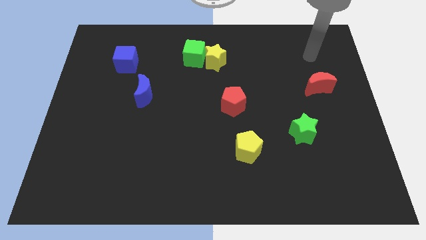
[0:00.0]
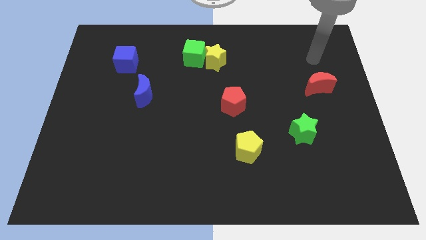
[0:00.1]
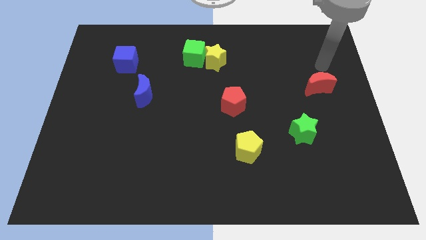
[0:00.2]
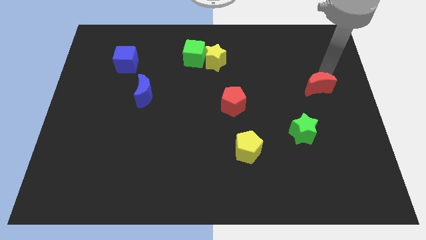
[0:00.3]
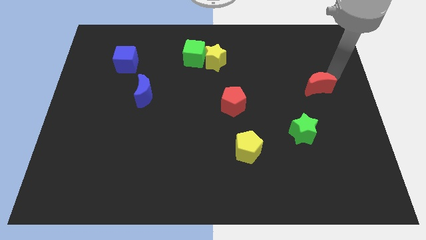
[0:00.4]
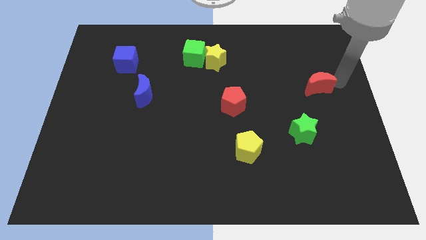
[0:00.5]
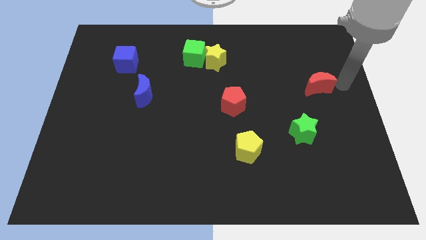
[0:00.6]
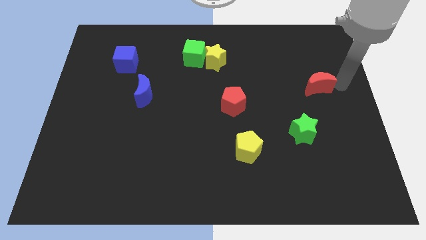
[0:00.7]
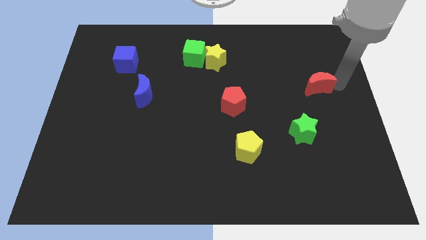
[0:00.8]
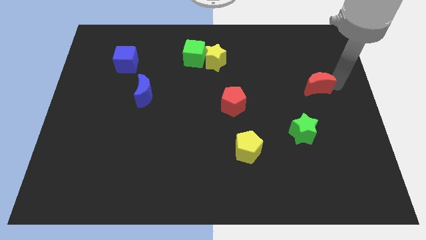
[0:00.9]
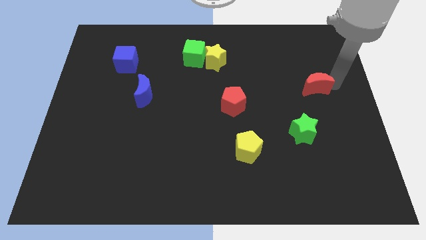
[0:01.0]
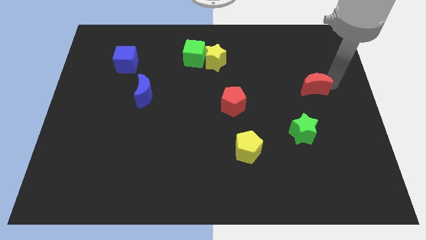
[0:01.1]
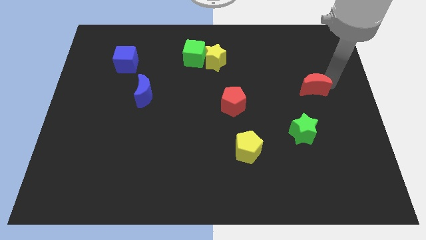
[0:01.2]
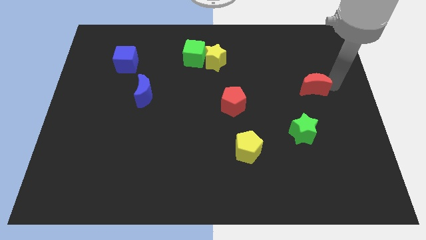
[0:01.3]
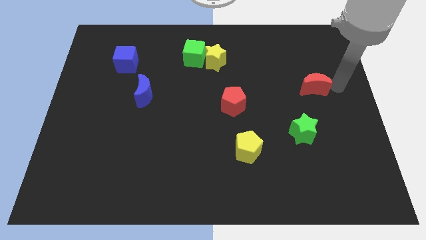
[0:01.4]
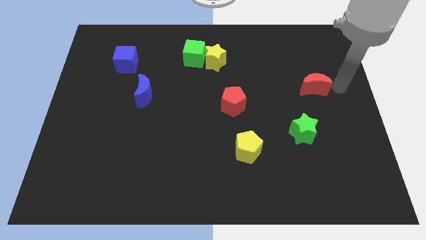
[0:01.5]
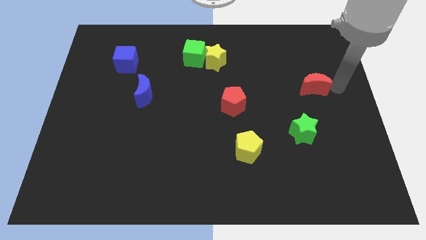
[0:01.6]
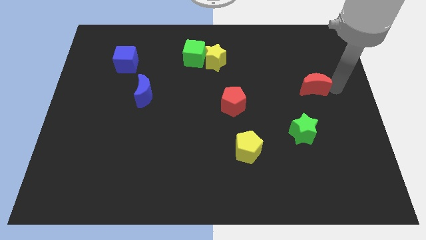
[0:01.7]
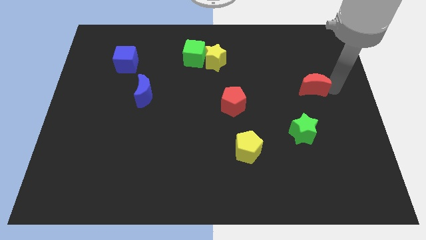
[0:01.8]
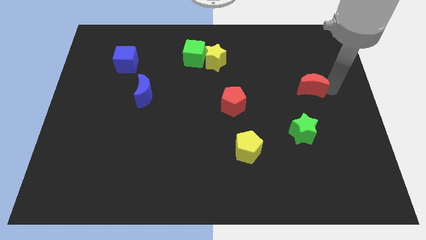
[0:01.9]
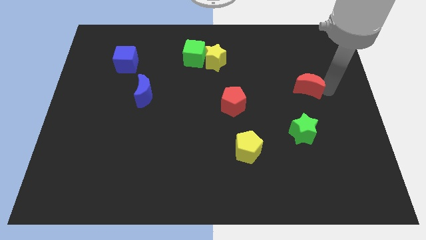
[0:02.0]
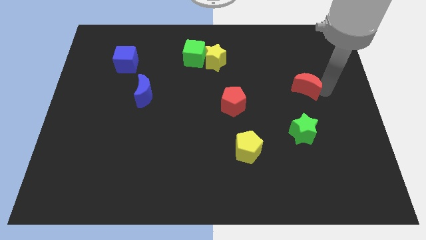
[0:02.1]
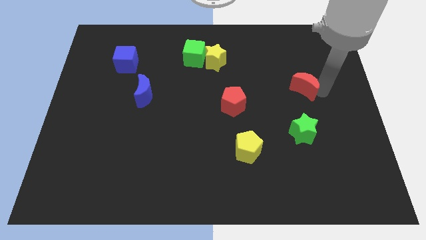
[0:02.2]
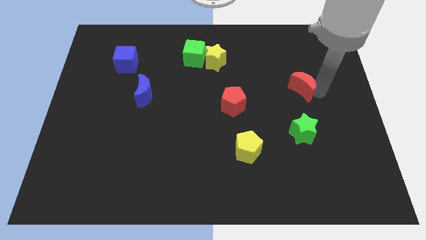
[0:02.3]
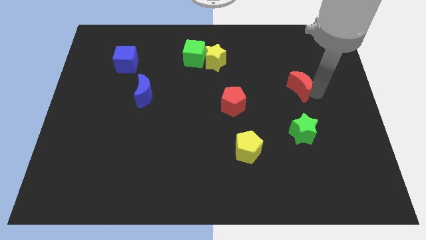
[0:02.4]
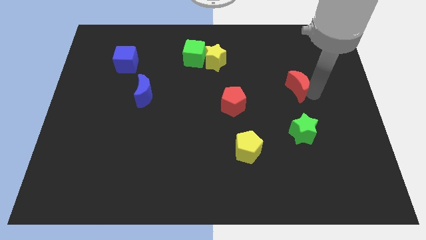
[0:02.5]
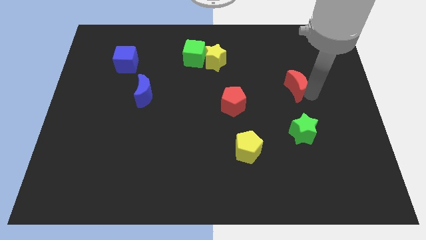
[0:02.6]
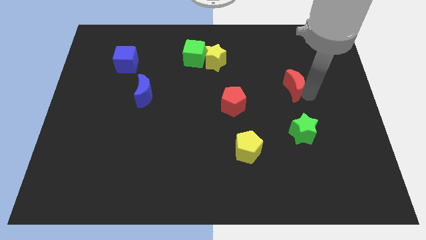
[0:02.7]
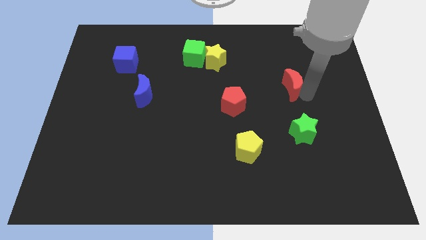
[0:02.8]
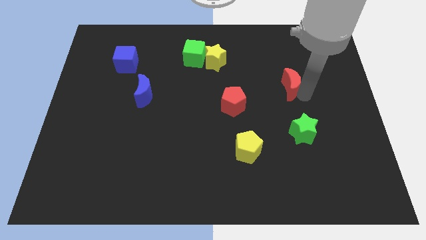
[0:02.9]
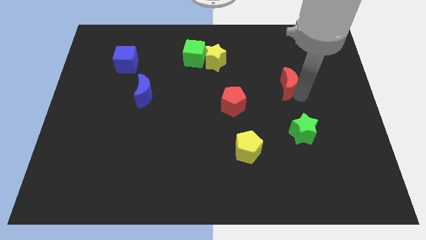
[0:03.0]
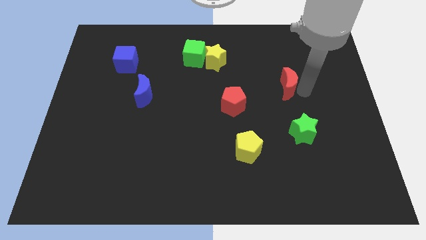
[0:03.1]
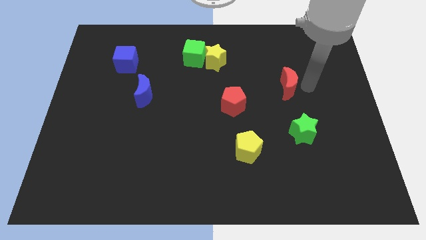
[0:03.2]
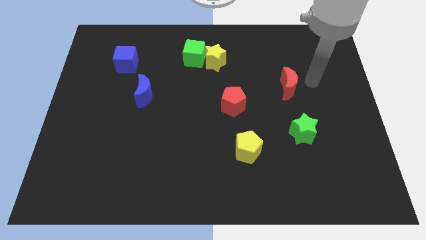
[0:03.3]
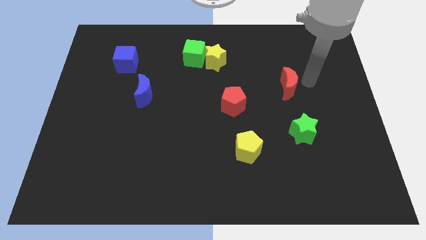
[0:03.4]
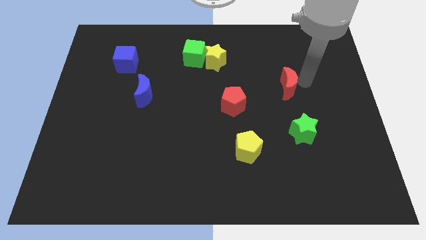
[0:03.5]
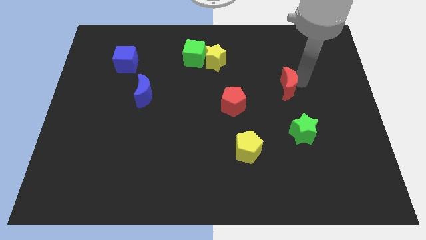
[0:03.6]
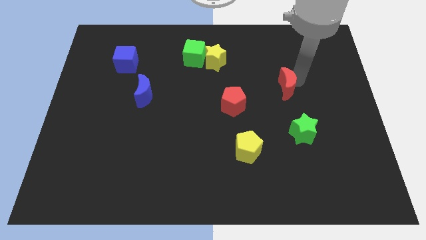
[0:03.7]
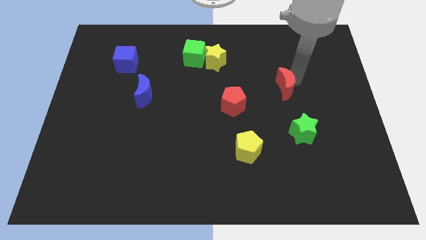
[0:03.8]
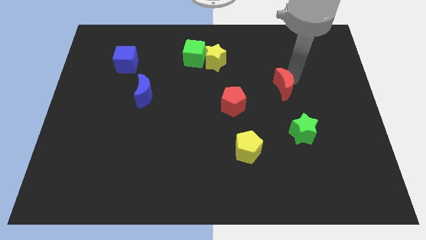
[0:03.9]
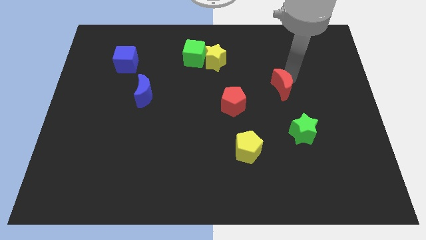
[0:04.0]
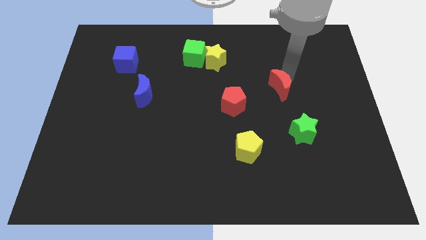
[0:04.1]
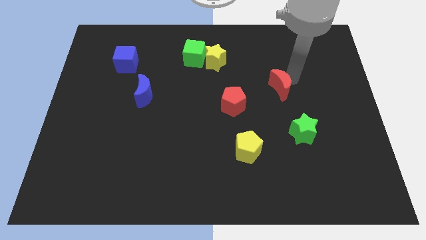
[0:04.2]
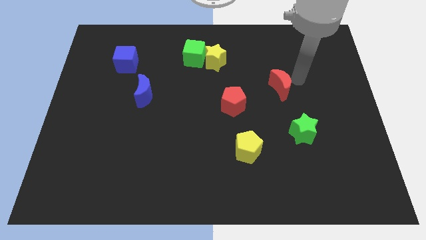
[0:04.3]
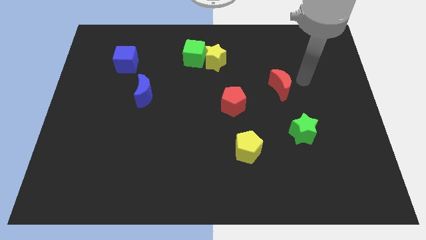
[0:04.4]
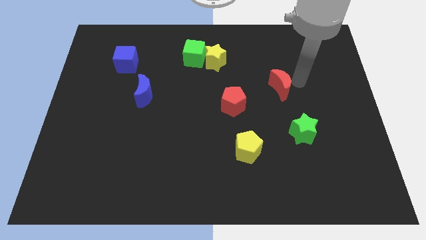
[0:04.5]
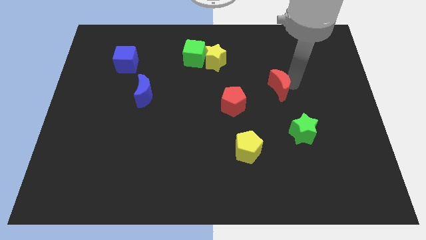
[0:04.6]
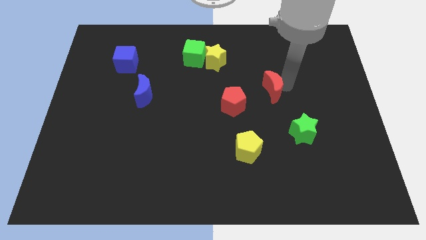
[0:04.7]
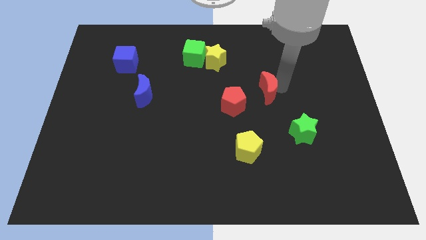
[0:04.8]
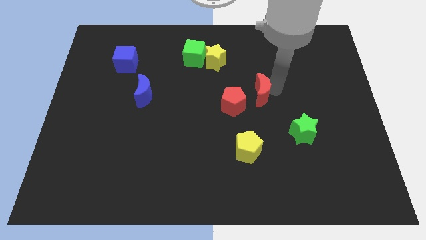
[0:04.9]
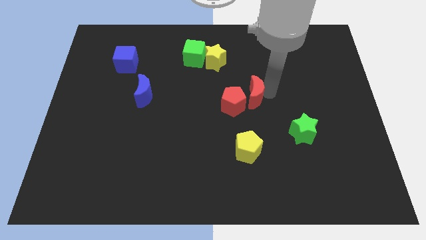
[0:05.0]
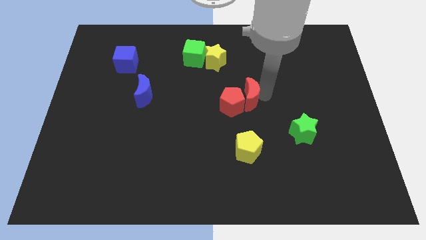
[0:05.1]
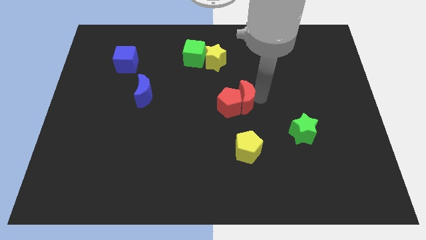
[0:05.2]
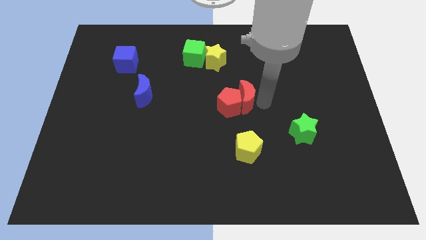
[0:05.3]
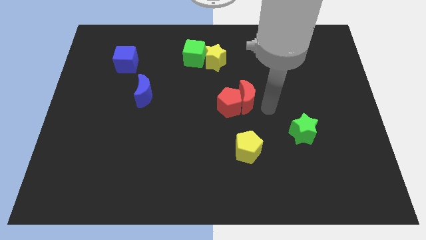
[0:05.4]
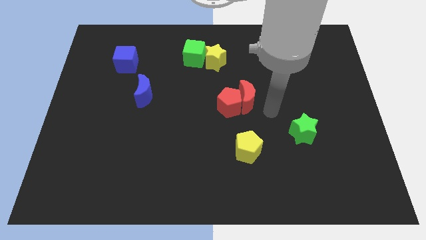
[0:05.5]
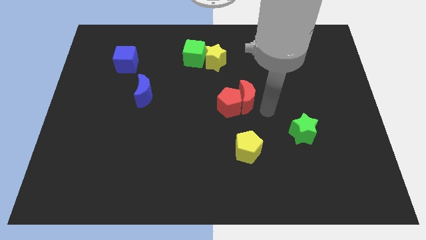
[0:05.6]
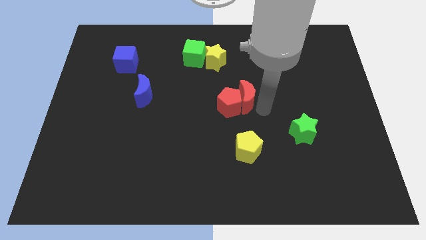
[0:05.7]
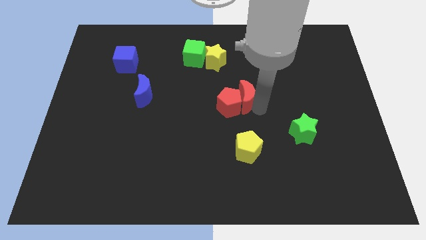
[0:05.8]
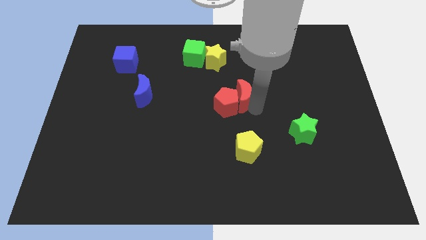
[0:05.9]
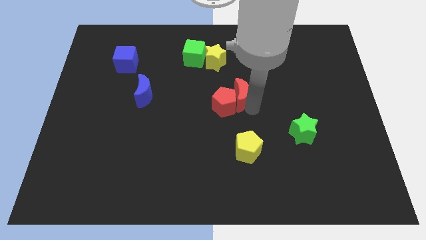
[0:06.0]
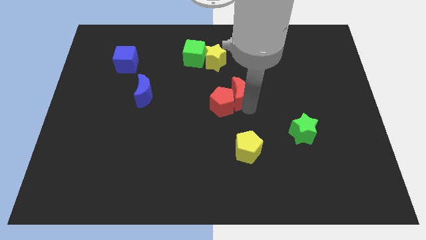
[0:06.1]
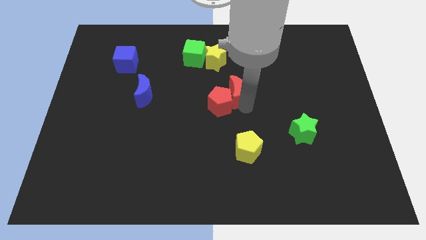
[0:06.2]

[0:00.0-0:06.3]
slide the red moon to the left

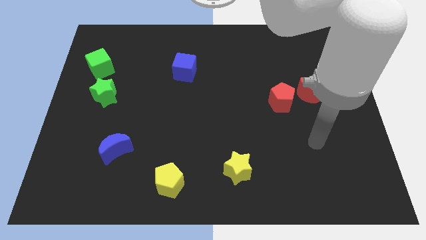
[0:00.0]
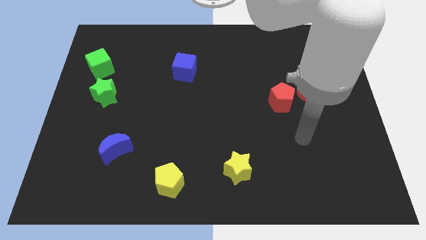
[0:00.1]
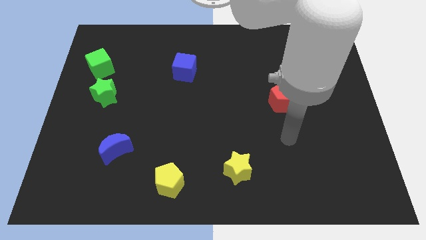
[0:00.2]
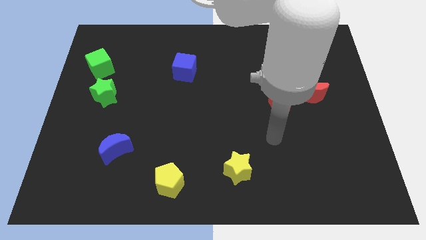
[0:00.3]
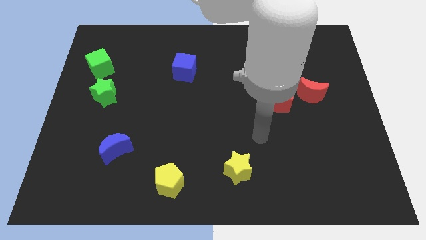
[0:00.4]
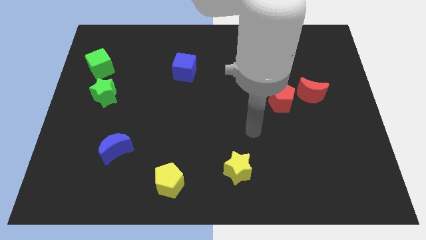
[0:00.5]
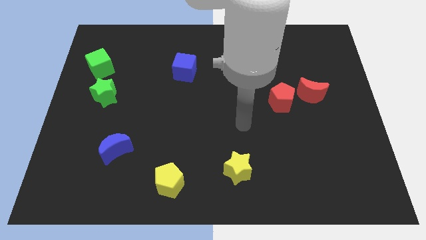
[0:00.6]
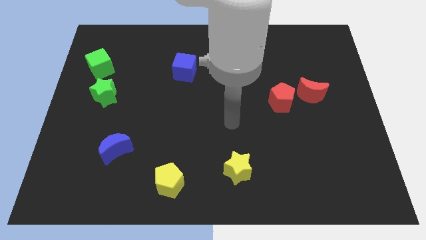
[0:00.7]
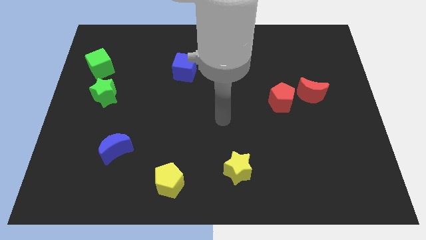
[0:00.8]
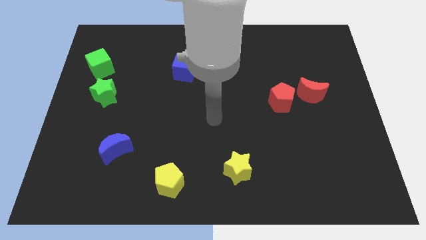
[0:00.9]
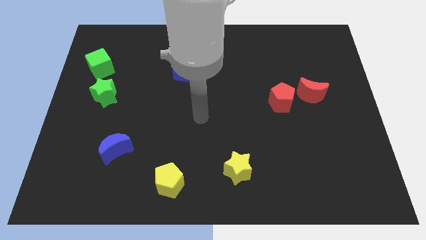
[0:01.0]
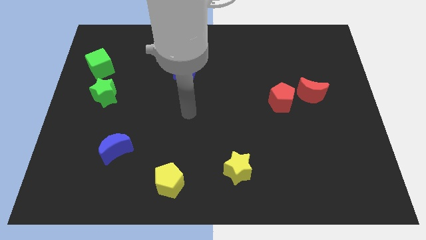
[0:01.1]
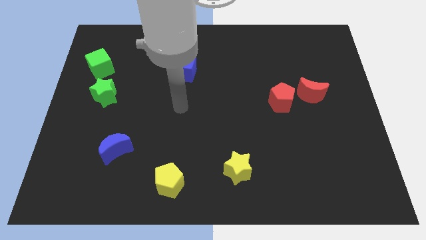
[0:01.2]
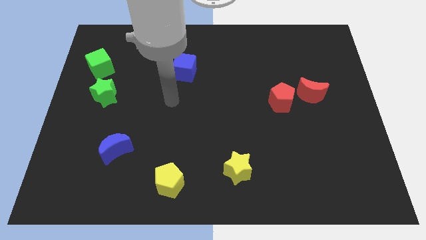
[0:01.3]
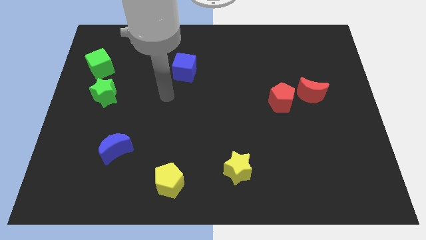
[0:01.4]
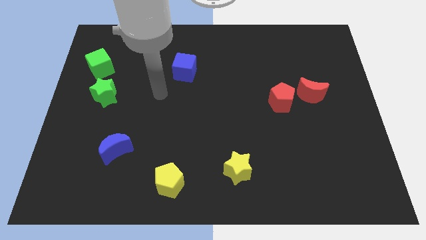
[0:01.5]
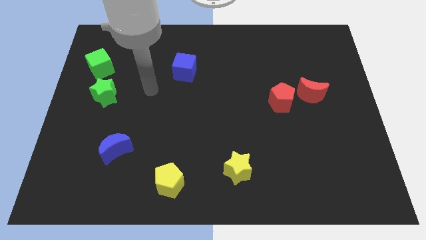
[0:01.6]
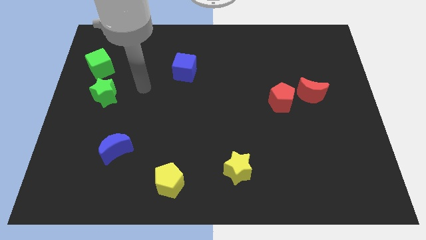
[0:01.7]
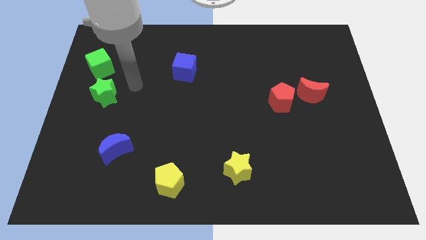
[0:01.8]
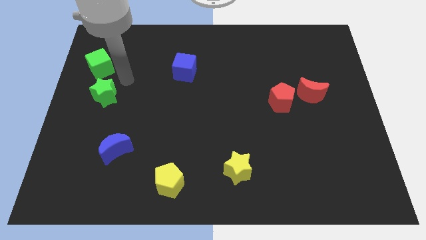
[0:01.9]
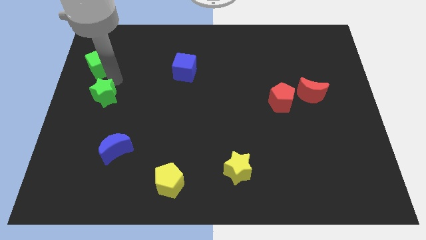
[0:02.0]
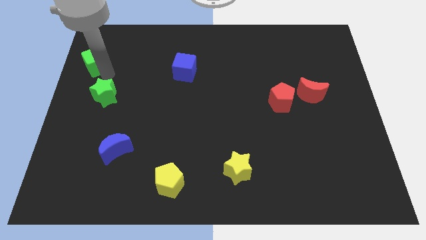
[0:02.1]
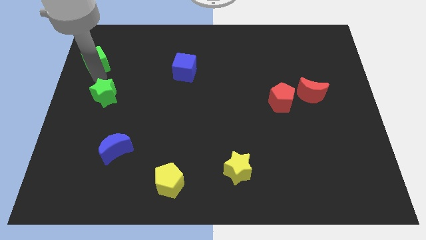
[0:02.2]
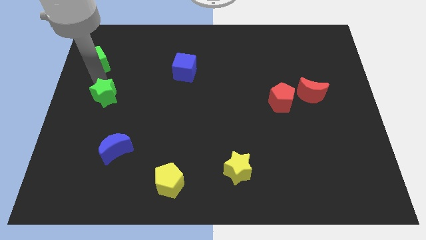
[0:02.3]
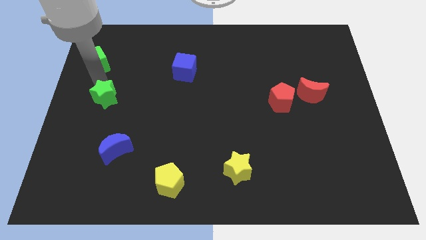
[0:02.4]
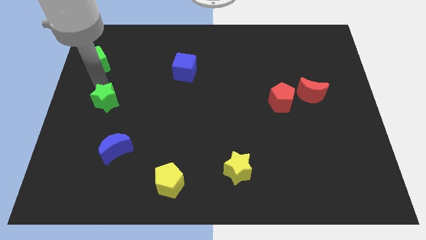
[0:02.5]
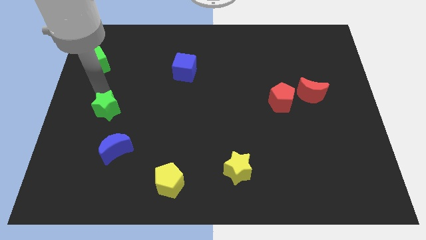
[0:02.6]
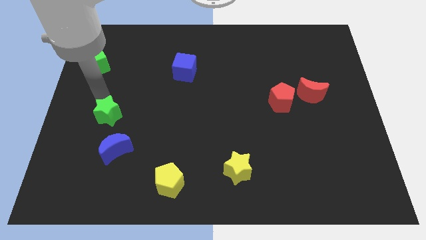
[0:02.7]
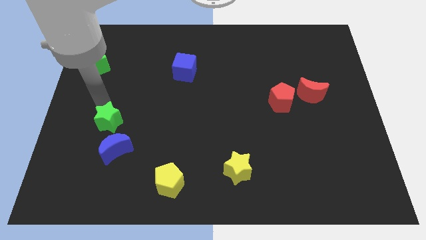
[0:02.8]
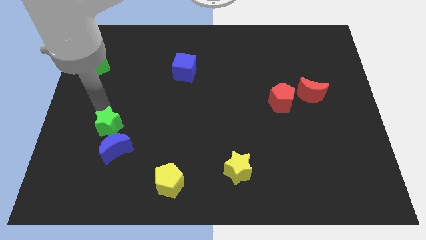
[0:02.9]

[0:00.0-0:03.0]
slightly slide the green star down and then right
